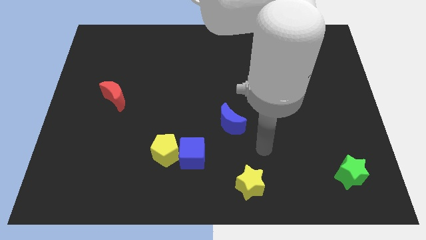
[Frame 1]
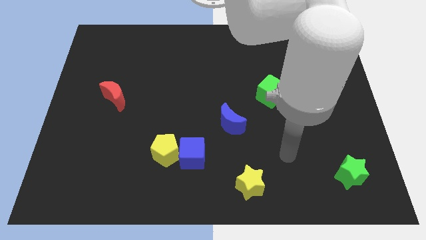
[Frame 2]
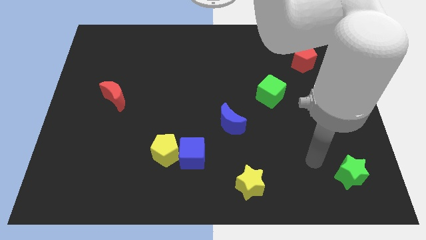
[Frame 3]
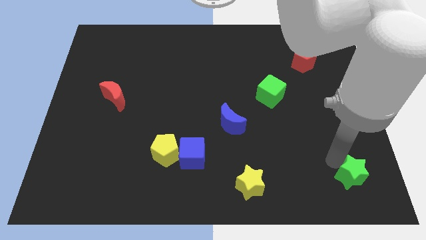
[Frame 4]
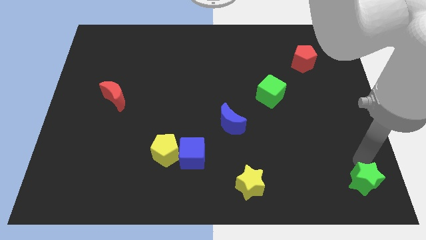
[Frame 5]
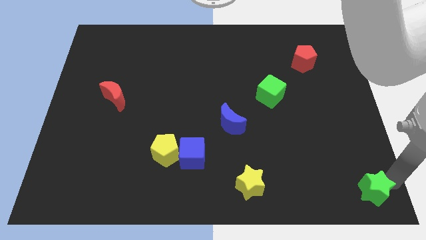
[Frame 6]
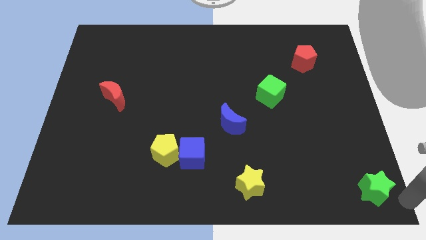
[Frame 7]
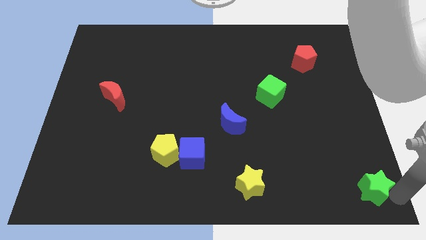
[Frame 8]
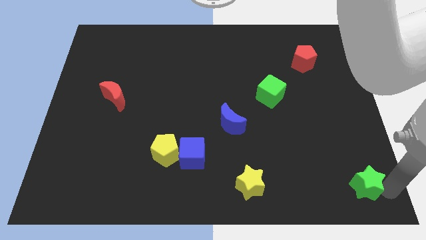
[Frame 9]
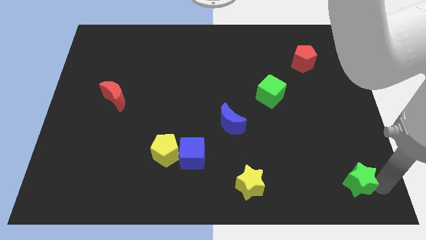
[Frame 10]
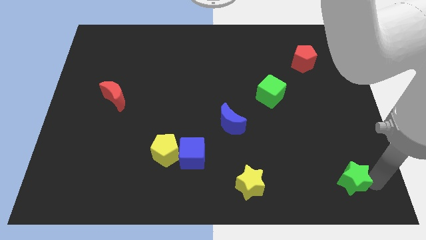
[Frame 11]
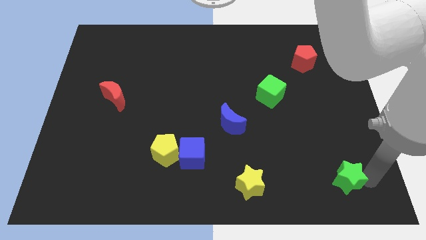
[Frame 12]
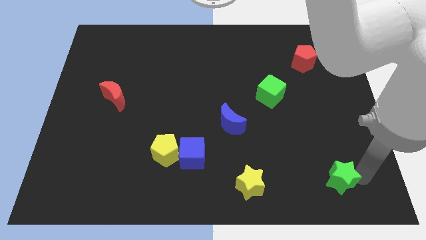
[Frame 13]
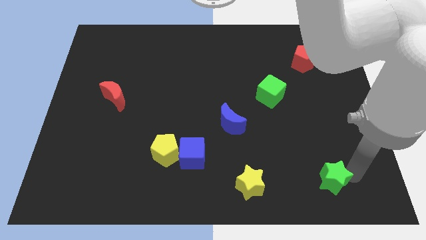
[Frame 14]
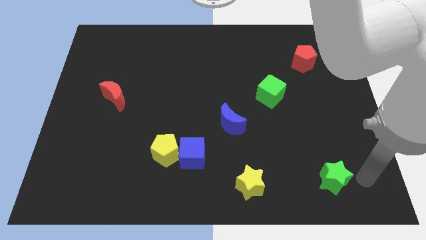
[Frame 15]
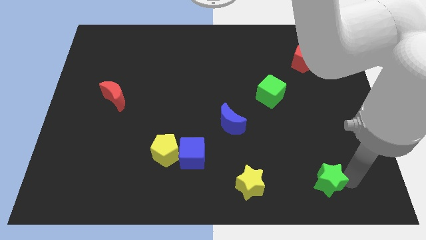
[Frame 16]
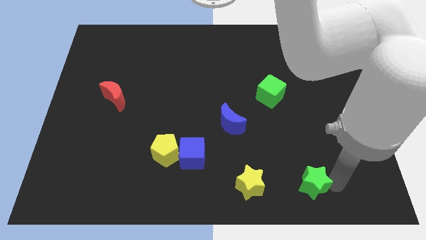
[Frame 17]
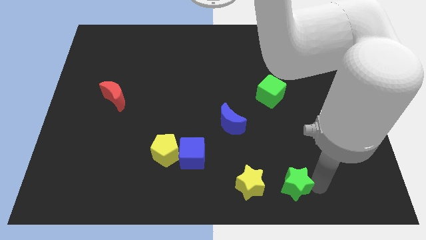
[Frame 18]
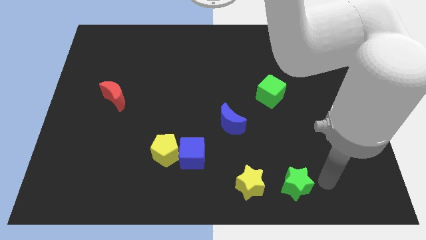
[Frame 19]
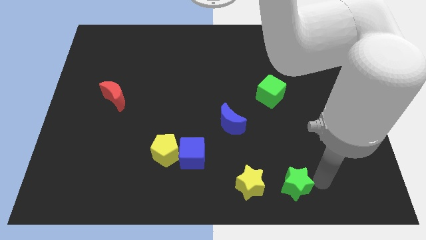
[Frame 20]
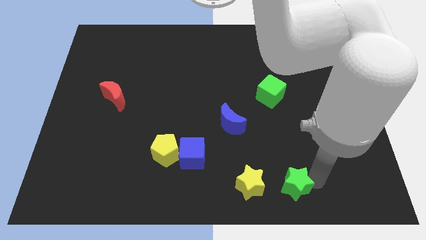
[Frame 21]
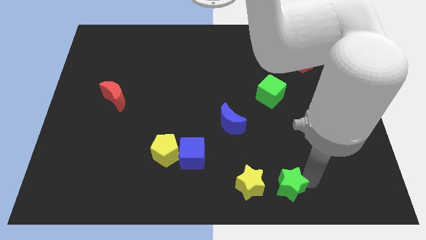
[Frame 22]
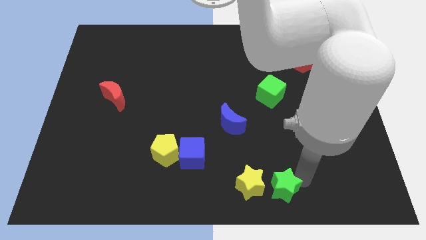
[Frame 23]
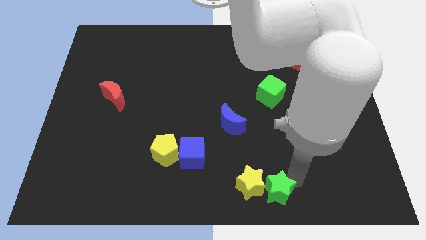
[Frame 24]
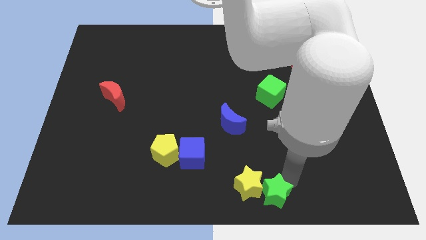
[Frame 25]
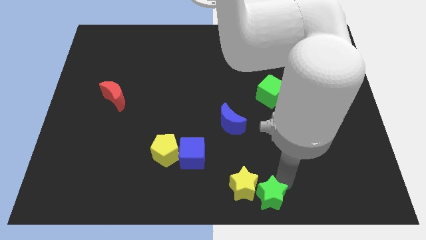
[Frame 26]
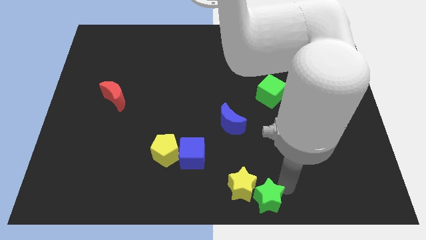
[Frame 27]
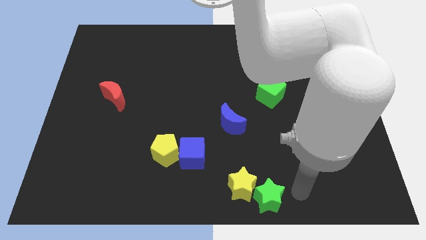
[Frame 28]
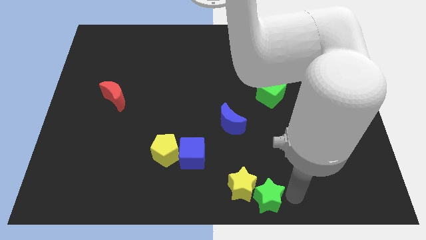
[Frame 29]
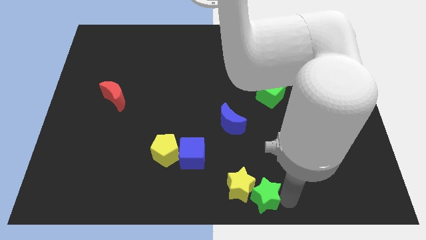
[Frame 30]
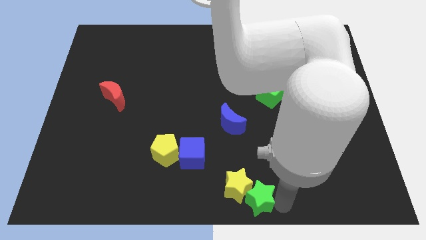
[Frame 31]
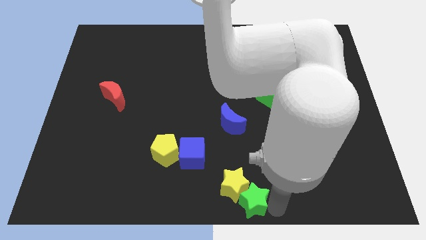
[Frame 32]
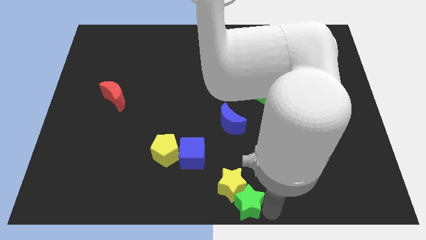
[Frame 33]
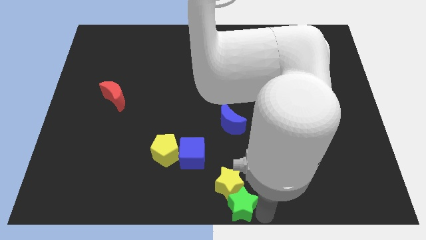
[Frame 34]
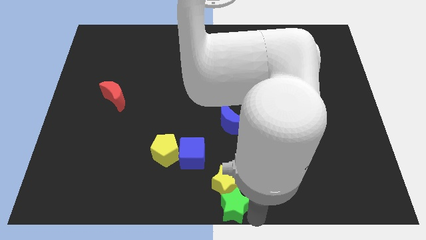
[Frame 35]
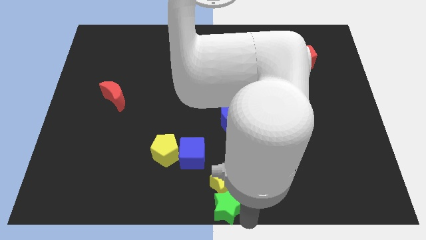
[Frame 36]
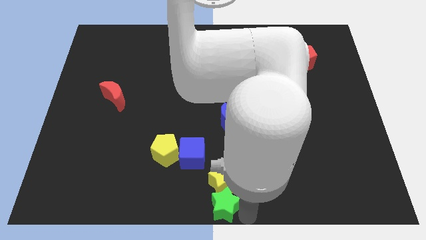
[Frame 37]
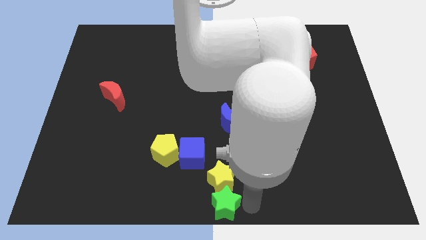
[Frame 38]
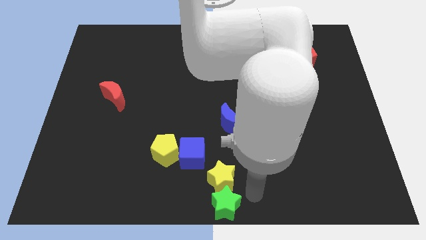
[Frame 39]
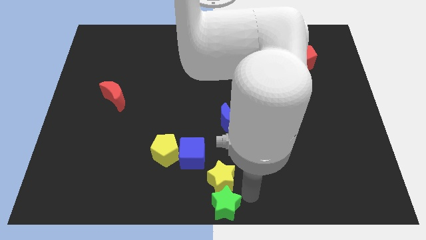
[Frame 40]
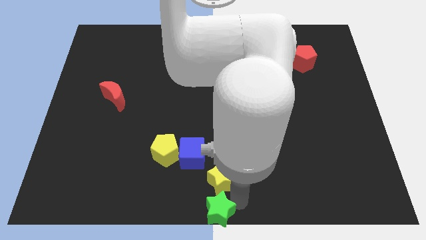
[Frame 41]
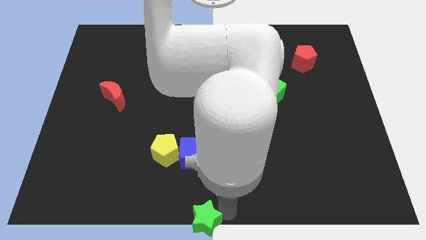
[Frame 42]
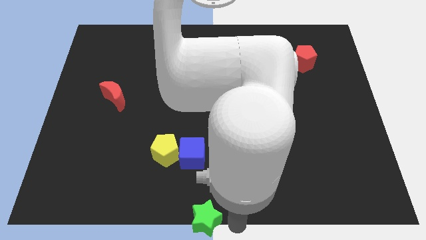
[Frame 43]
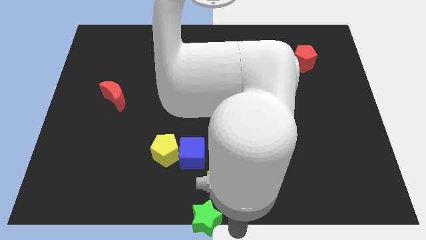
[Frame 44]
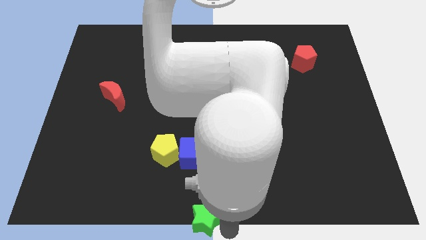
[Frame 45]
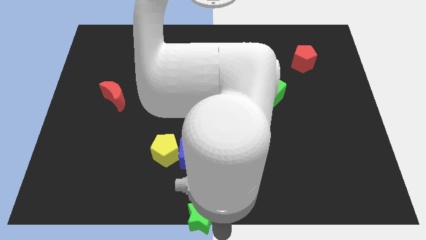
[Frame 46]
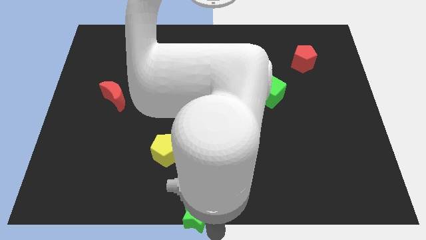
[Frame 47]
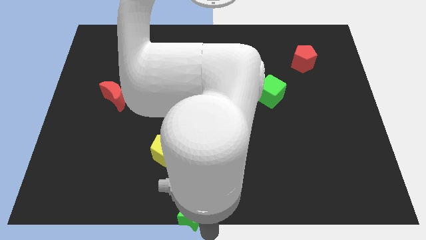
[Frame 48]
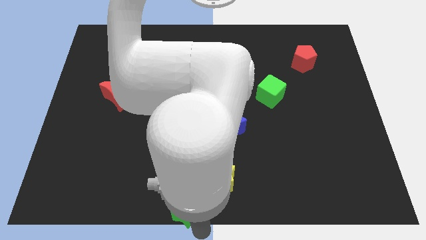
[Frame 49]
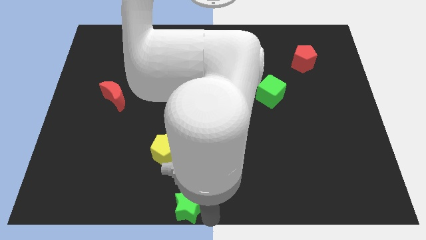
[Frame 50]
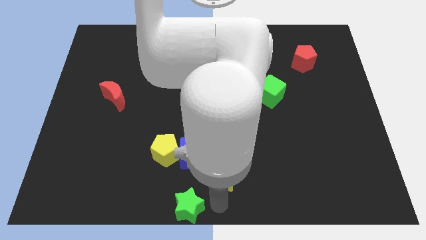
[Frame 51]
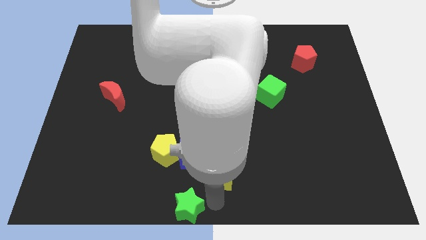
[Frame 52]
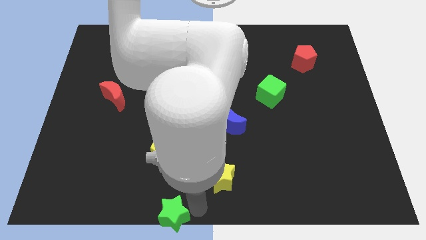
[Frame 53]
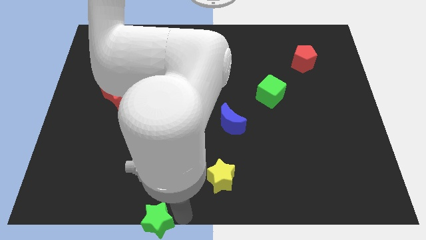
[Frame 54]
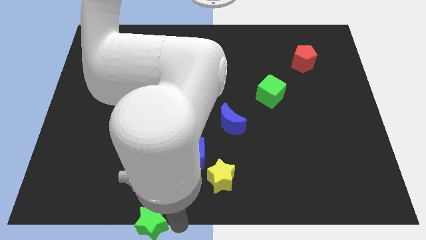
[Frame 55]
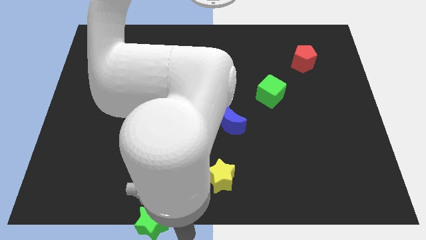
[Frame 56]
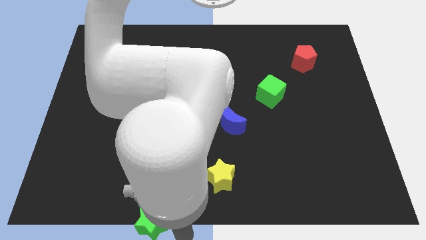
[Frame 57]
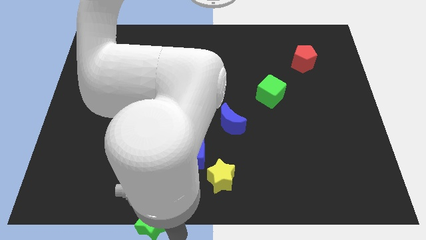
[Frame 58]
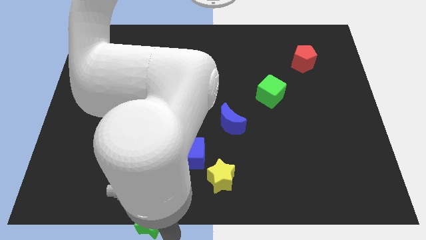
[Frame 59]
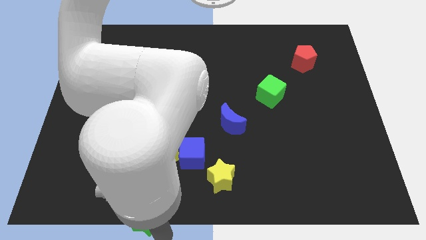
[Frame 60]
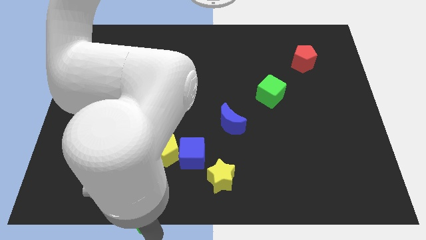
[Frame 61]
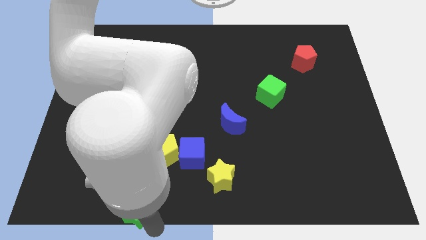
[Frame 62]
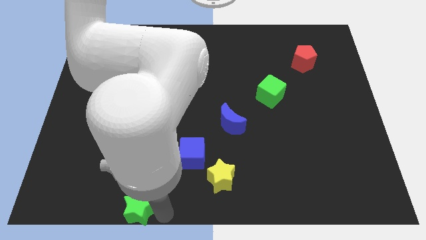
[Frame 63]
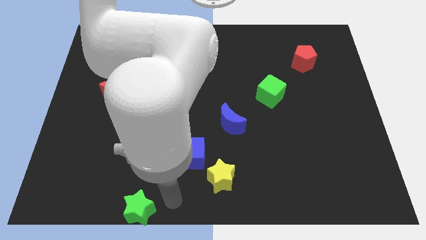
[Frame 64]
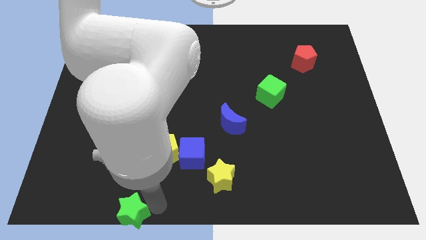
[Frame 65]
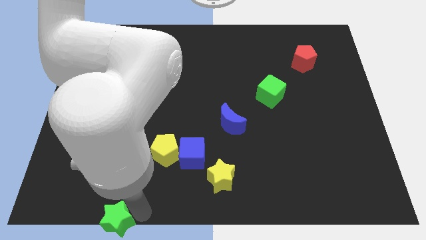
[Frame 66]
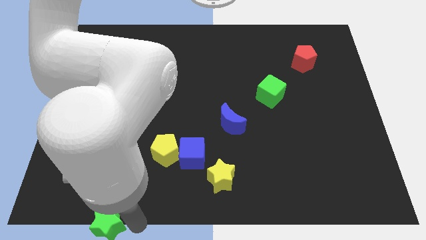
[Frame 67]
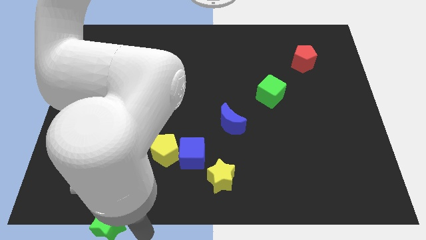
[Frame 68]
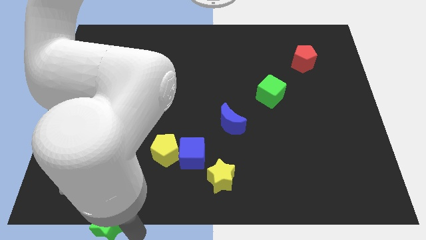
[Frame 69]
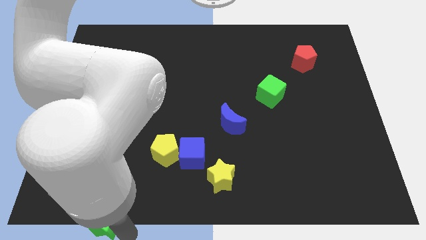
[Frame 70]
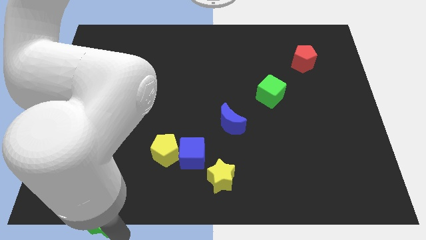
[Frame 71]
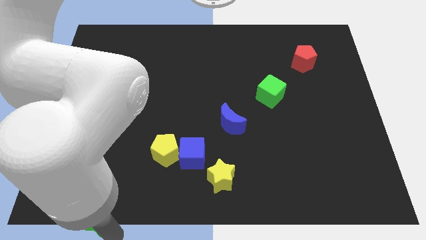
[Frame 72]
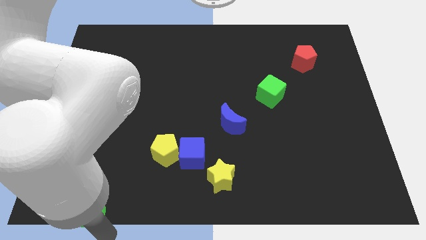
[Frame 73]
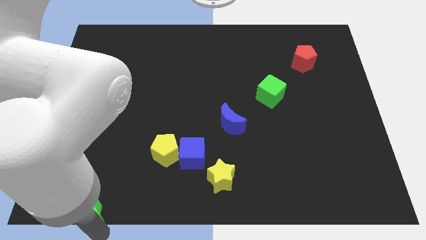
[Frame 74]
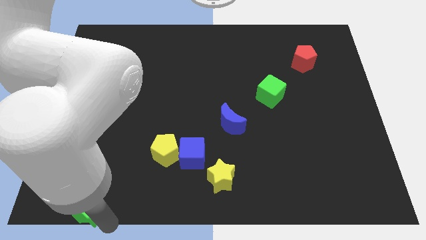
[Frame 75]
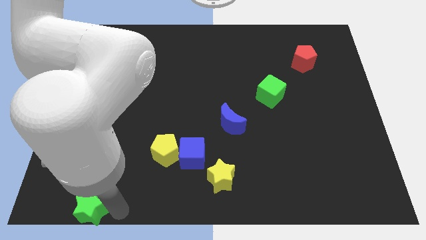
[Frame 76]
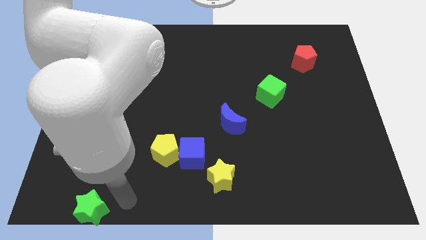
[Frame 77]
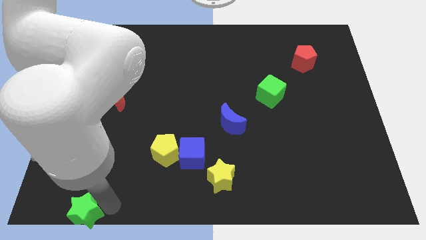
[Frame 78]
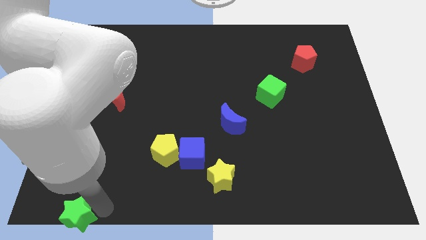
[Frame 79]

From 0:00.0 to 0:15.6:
move the green star to the bottom left
